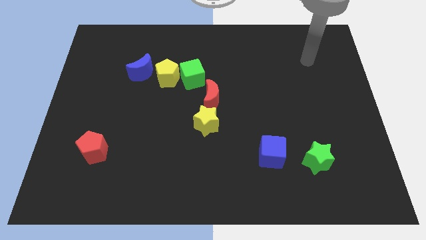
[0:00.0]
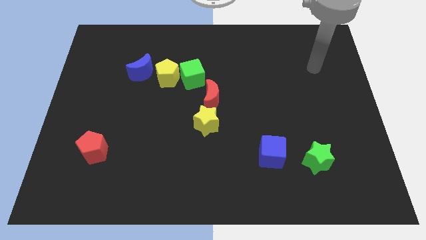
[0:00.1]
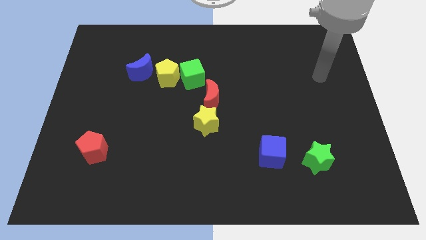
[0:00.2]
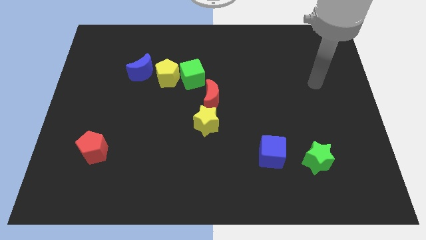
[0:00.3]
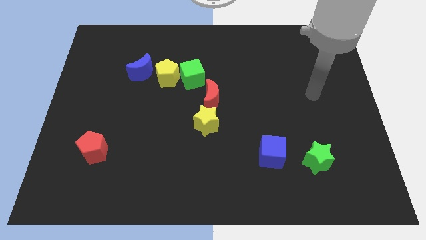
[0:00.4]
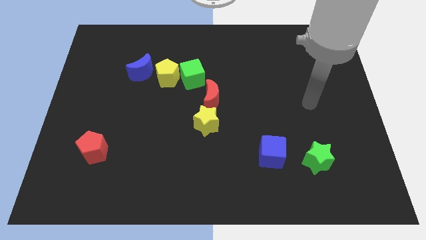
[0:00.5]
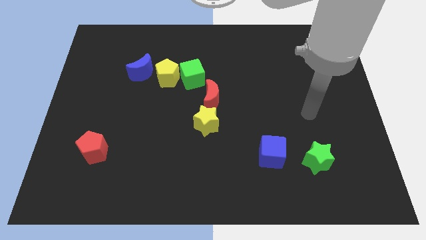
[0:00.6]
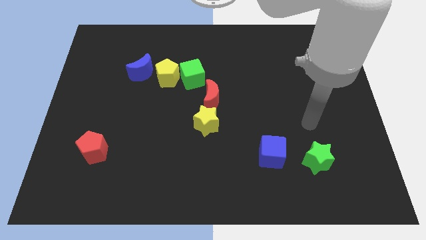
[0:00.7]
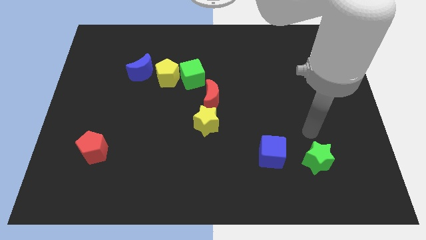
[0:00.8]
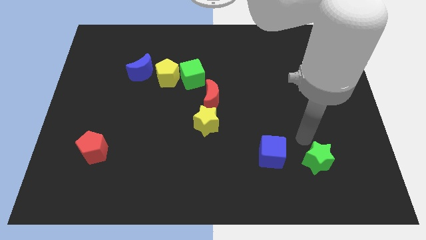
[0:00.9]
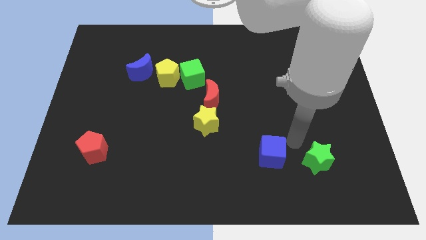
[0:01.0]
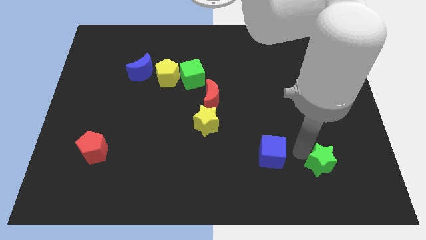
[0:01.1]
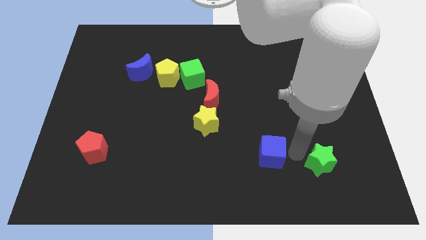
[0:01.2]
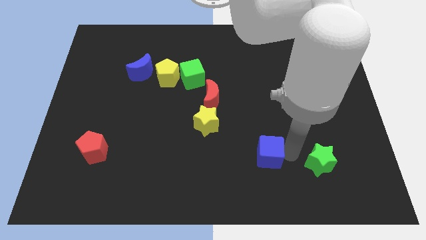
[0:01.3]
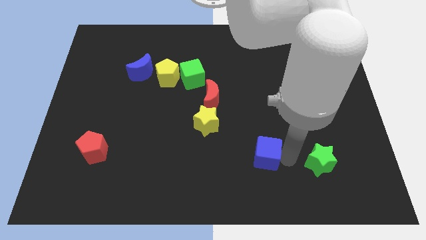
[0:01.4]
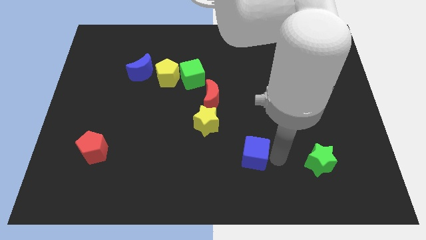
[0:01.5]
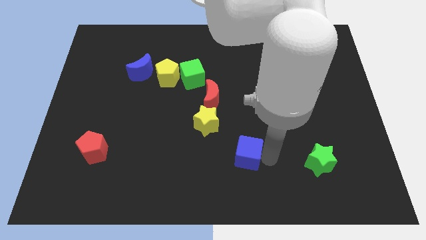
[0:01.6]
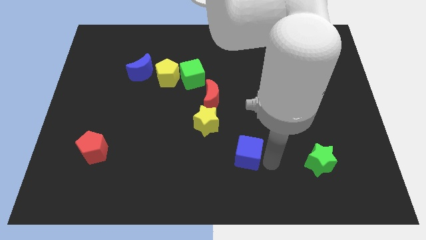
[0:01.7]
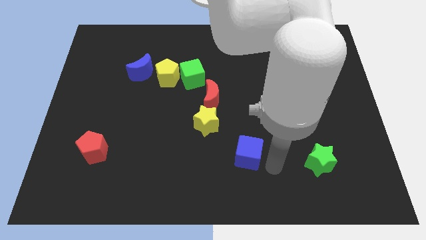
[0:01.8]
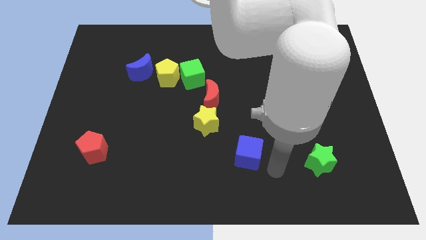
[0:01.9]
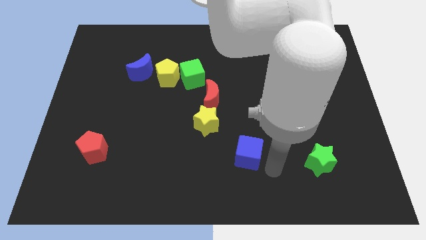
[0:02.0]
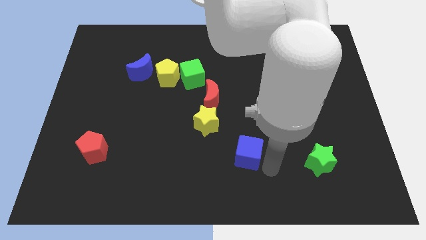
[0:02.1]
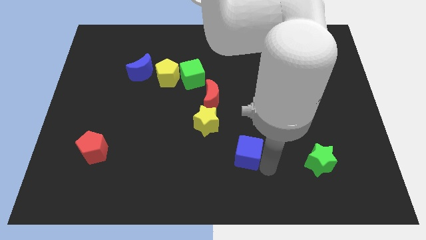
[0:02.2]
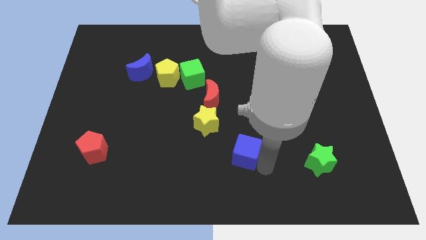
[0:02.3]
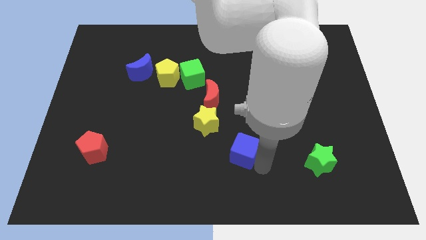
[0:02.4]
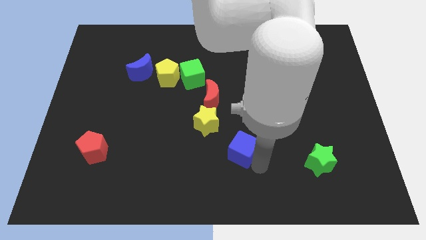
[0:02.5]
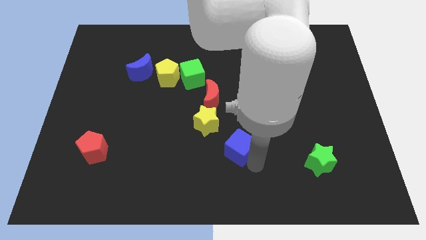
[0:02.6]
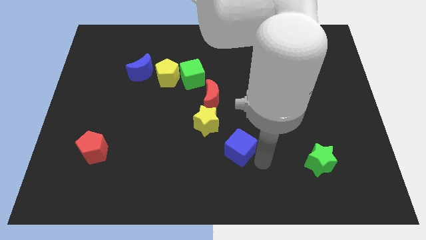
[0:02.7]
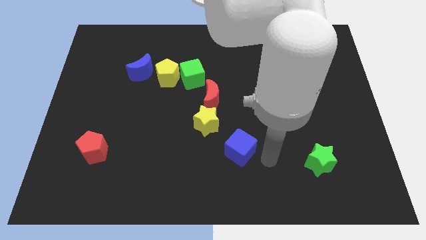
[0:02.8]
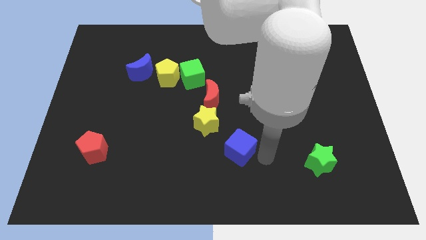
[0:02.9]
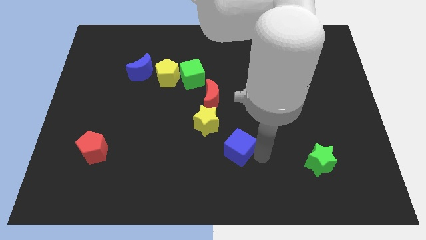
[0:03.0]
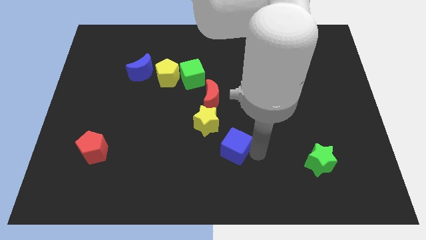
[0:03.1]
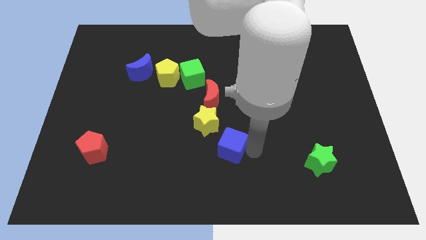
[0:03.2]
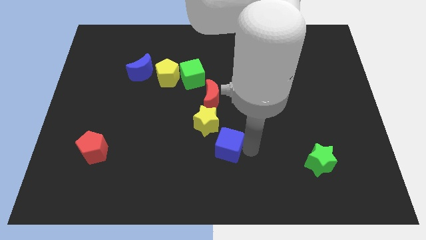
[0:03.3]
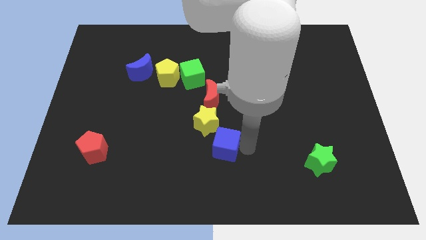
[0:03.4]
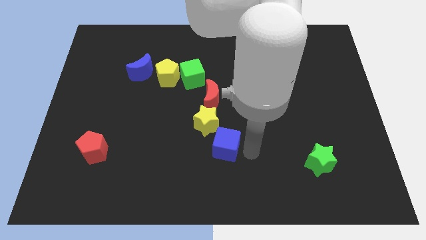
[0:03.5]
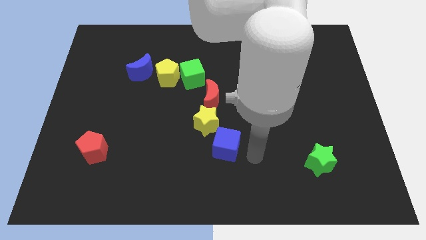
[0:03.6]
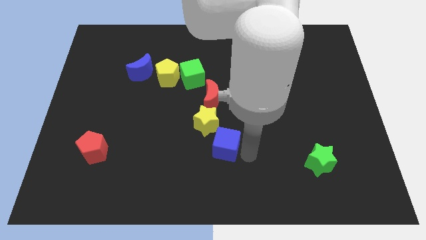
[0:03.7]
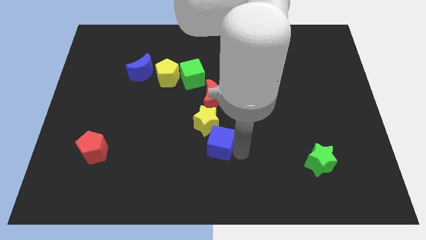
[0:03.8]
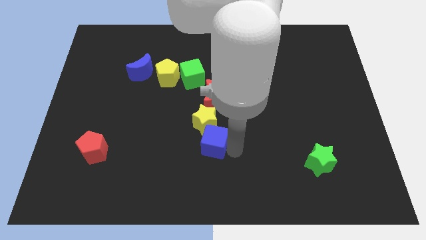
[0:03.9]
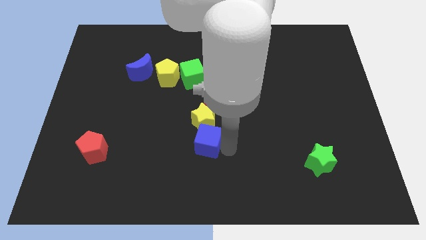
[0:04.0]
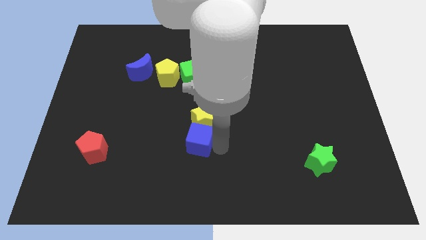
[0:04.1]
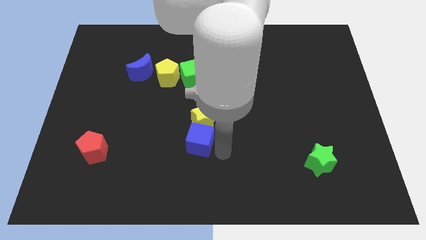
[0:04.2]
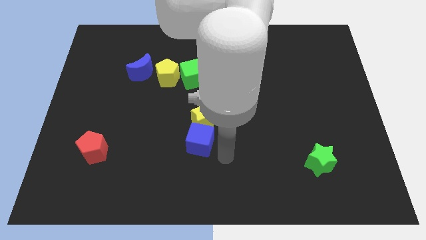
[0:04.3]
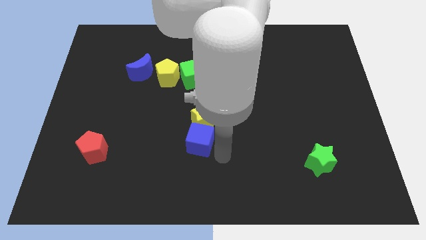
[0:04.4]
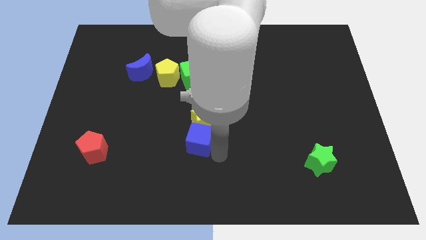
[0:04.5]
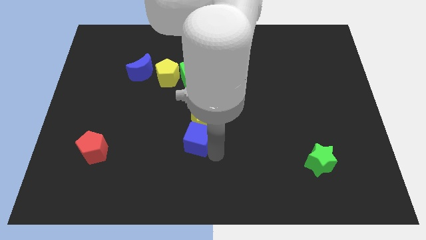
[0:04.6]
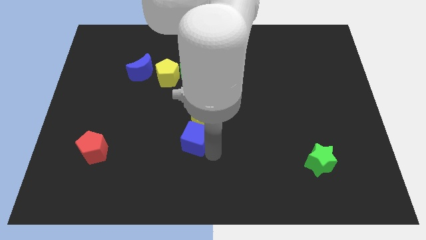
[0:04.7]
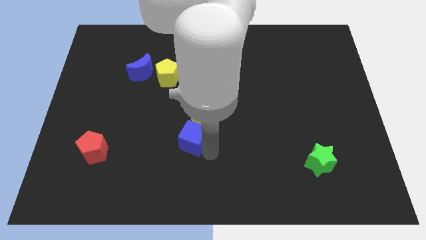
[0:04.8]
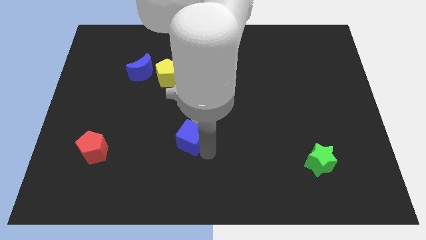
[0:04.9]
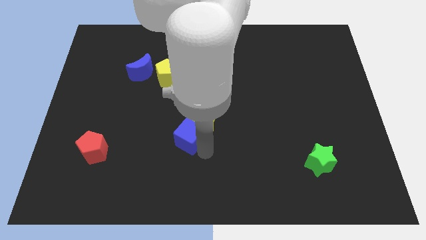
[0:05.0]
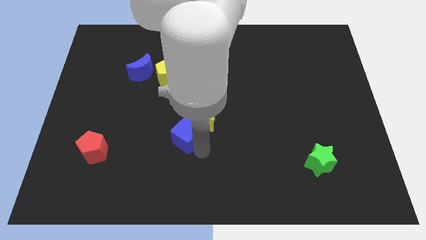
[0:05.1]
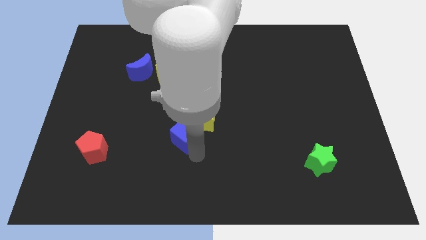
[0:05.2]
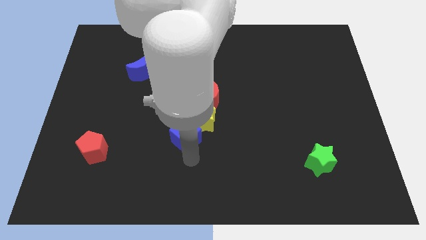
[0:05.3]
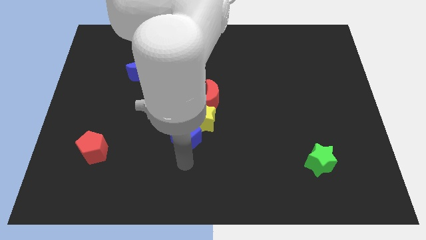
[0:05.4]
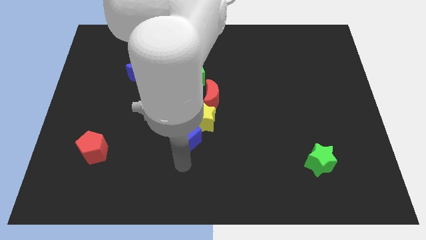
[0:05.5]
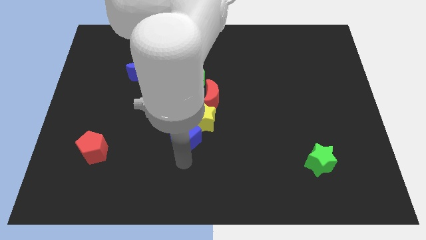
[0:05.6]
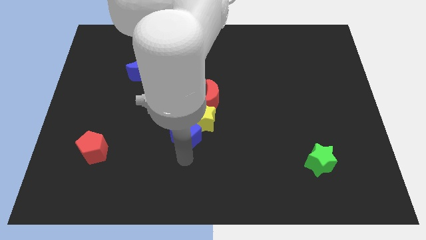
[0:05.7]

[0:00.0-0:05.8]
slide the blue cube to the bottom left of the red moon

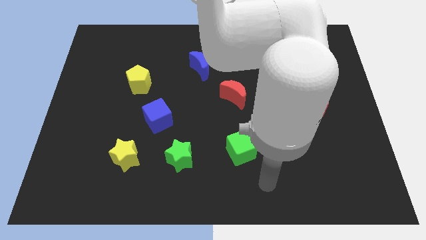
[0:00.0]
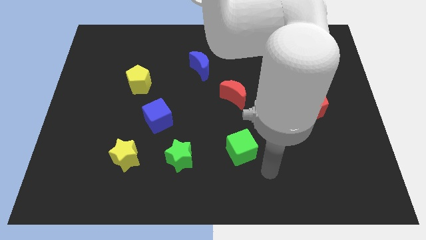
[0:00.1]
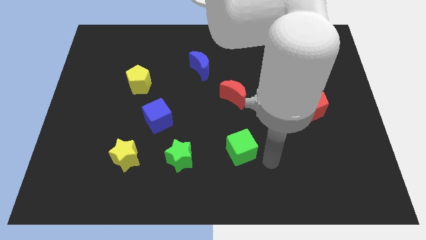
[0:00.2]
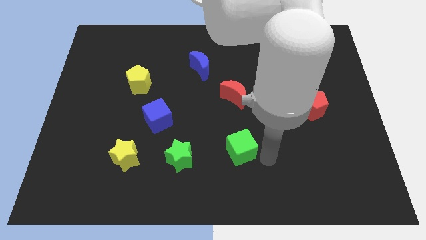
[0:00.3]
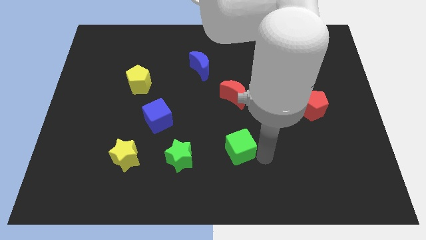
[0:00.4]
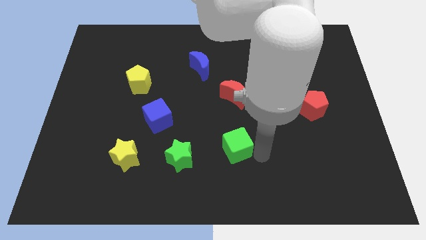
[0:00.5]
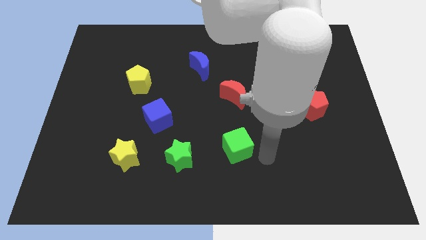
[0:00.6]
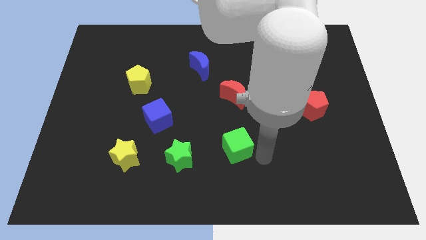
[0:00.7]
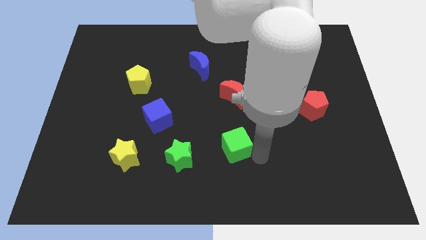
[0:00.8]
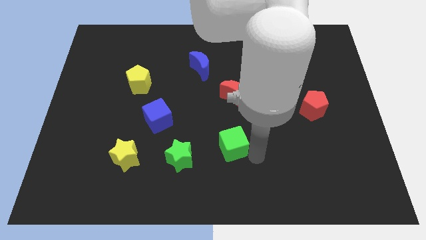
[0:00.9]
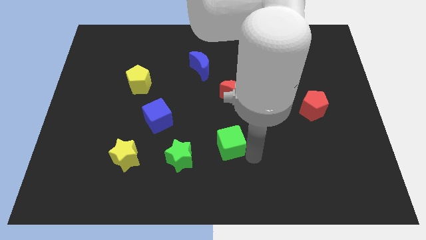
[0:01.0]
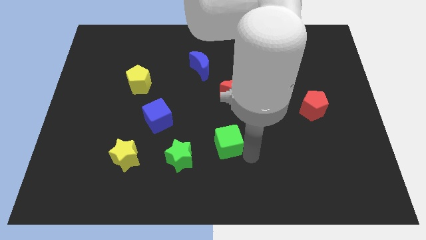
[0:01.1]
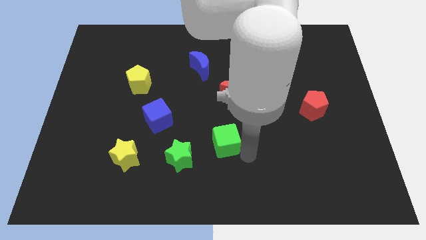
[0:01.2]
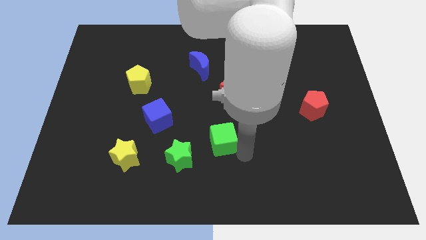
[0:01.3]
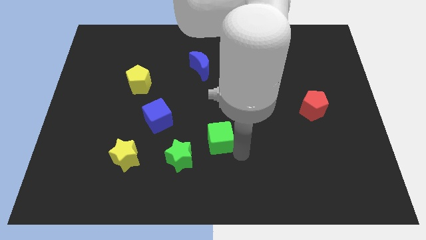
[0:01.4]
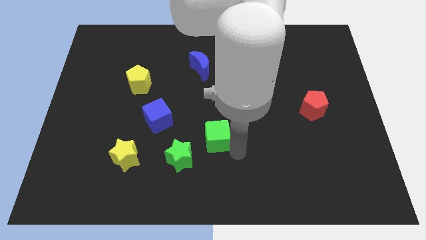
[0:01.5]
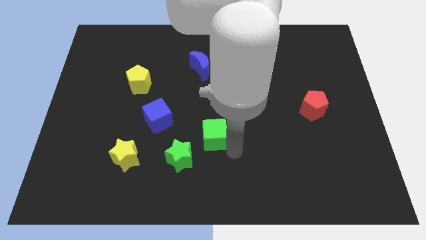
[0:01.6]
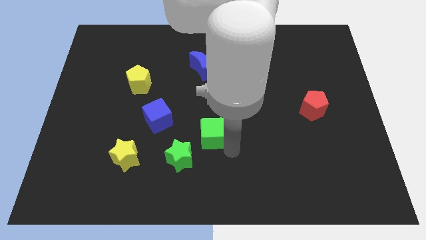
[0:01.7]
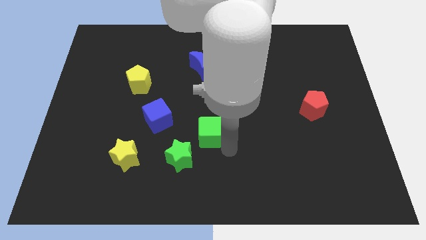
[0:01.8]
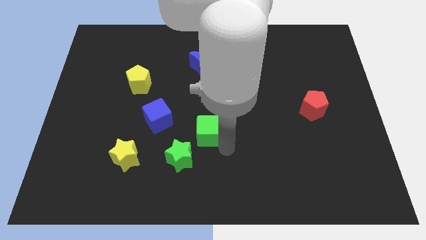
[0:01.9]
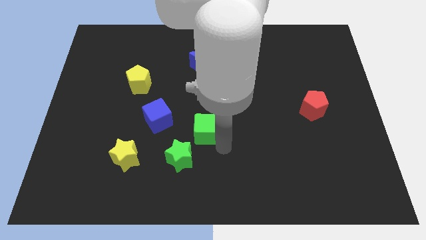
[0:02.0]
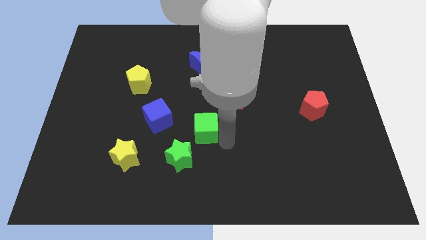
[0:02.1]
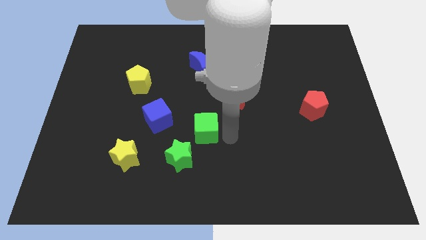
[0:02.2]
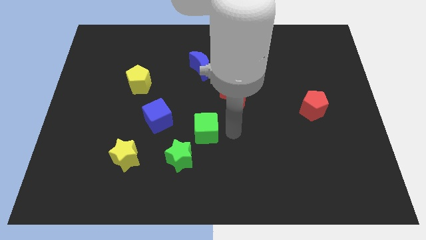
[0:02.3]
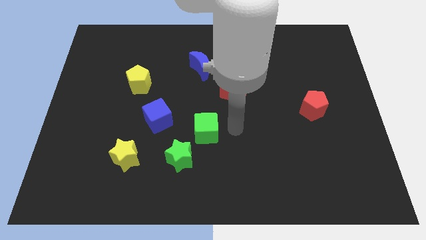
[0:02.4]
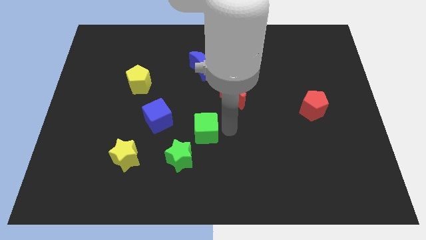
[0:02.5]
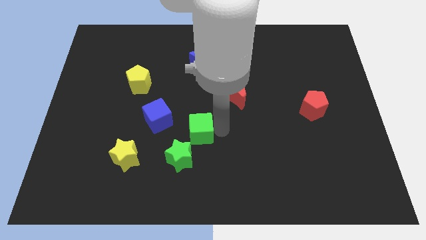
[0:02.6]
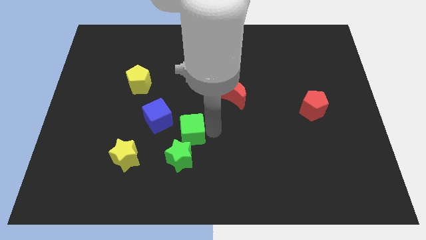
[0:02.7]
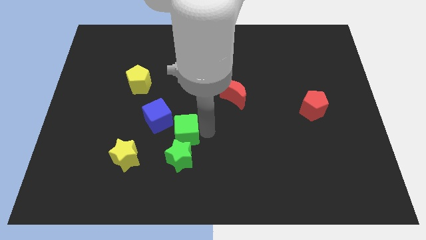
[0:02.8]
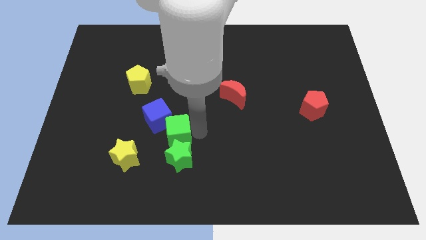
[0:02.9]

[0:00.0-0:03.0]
slide the green cube to the top right side of the yellow star
